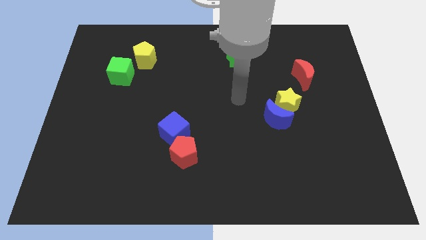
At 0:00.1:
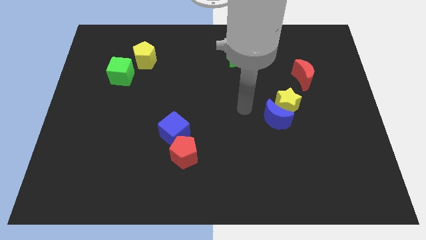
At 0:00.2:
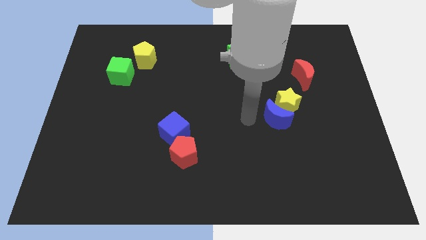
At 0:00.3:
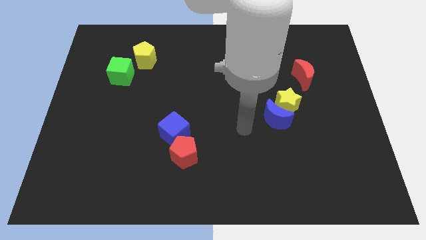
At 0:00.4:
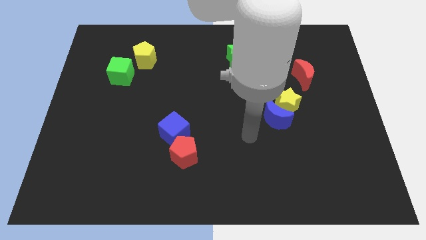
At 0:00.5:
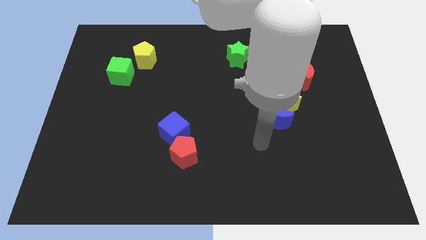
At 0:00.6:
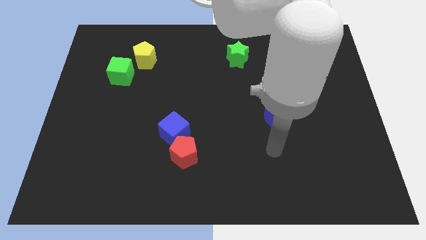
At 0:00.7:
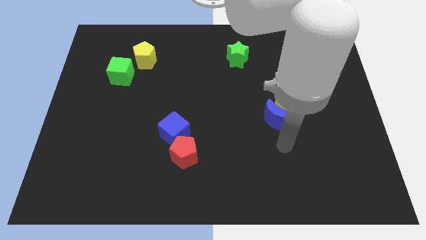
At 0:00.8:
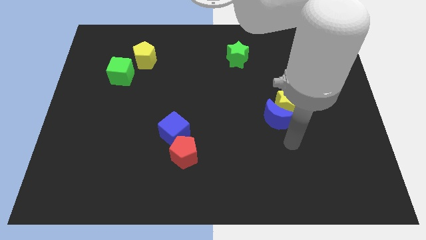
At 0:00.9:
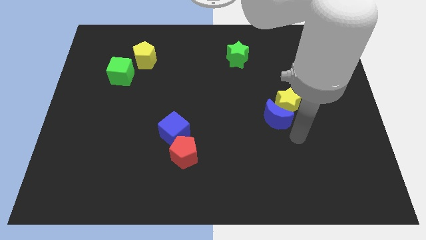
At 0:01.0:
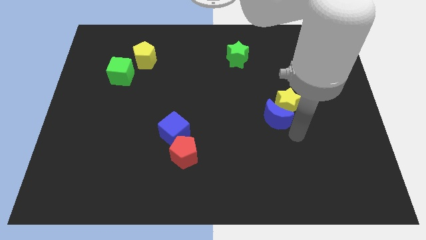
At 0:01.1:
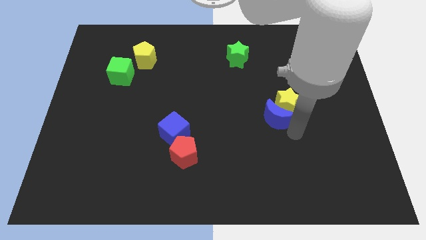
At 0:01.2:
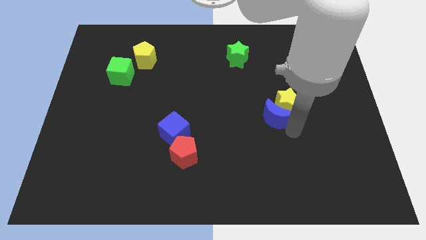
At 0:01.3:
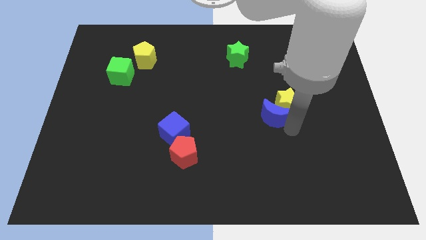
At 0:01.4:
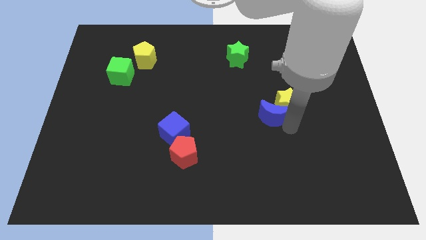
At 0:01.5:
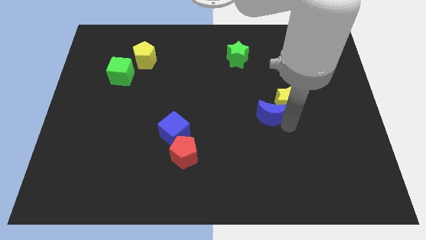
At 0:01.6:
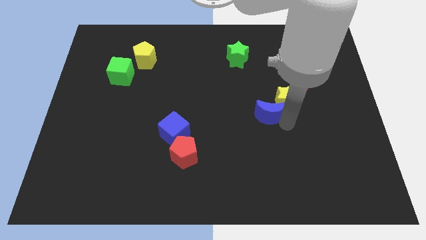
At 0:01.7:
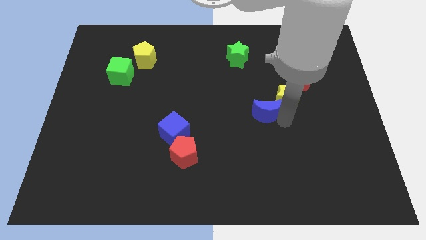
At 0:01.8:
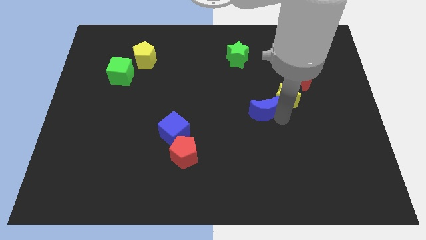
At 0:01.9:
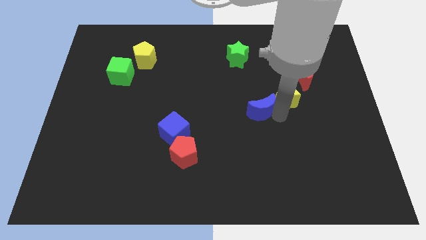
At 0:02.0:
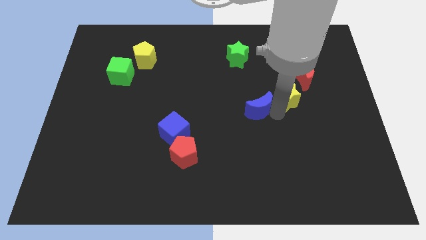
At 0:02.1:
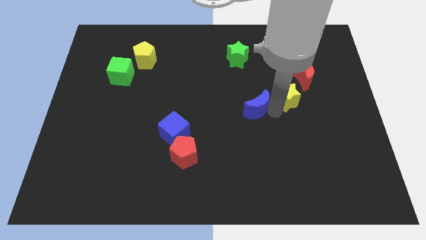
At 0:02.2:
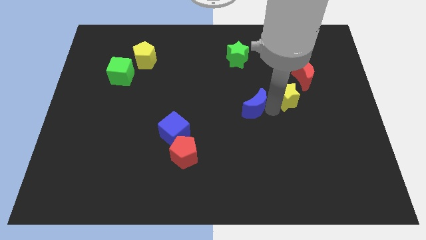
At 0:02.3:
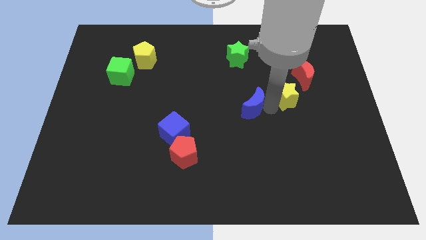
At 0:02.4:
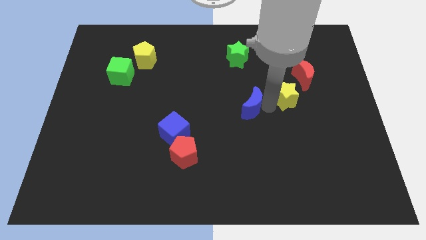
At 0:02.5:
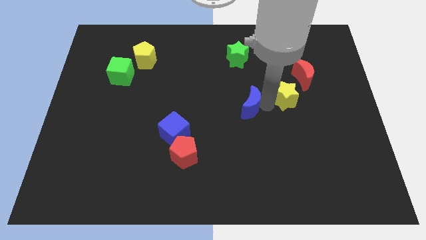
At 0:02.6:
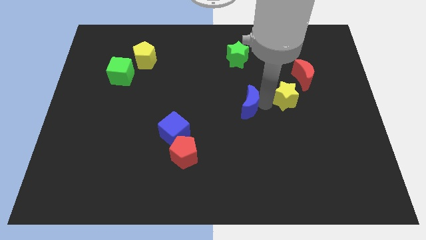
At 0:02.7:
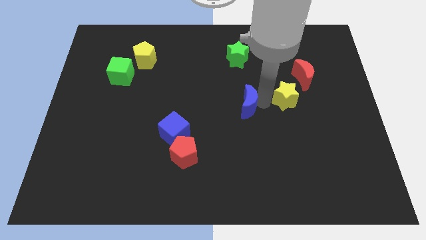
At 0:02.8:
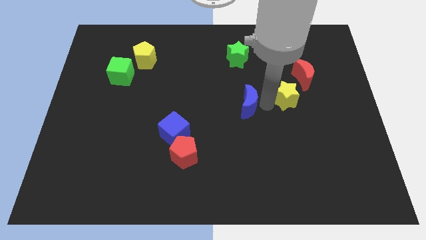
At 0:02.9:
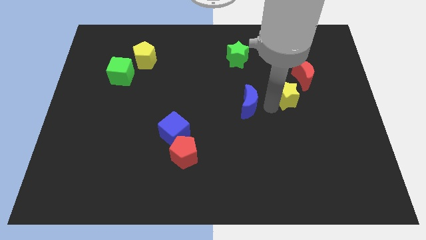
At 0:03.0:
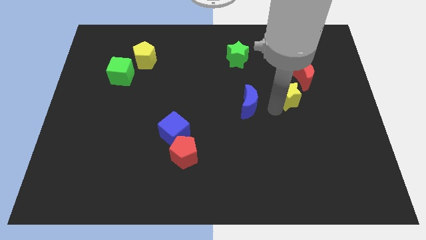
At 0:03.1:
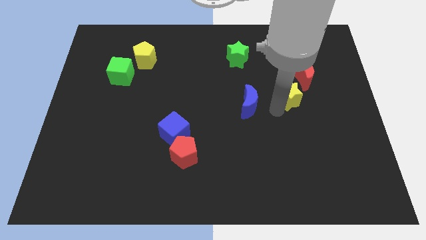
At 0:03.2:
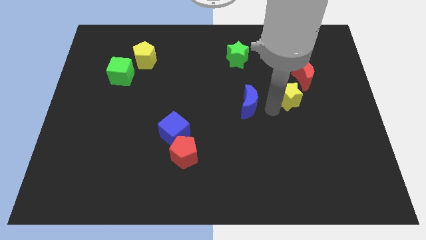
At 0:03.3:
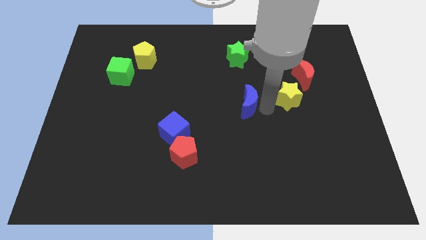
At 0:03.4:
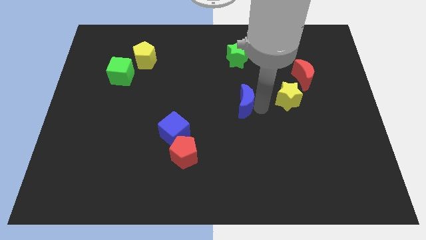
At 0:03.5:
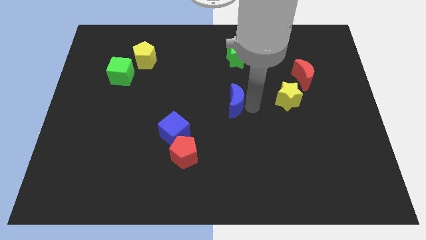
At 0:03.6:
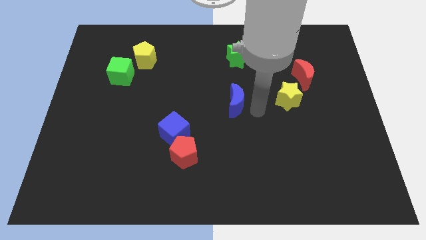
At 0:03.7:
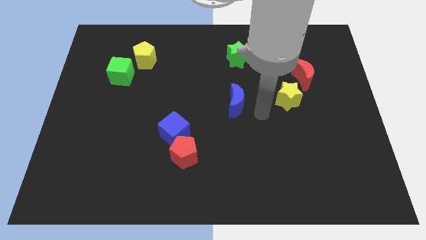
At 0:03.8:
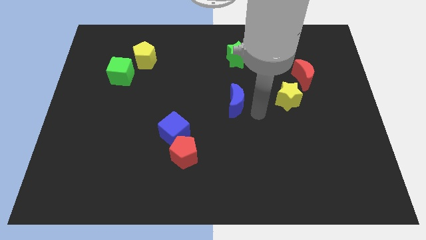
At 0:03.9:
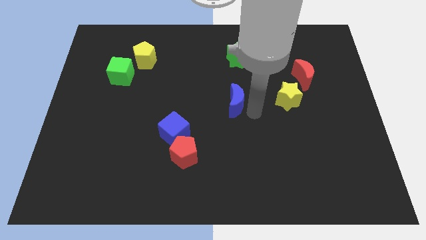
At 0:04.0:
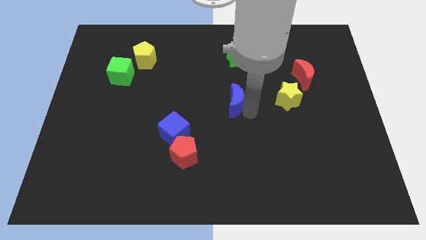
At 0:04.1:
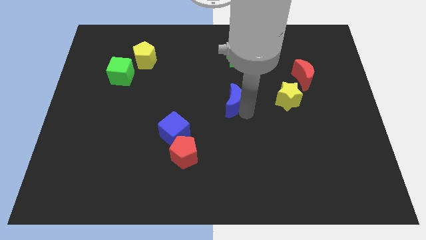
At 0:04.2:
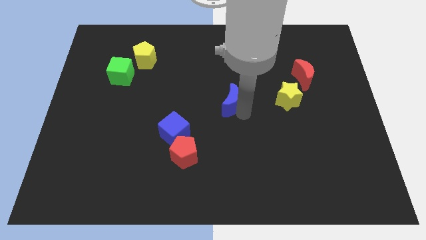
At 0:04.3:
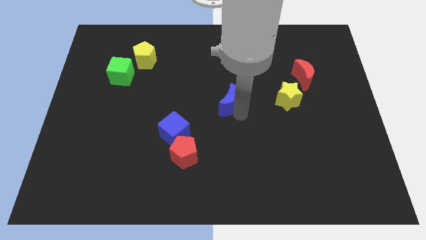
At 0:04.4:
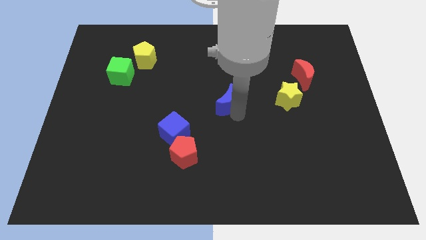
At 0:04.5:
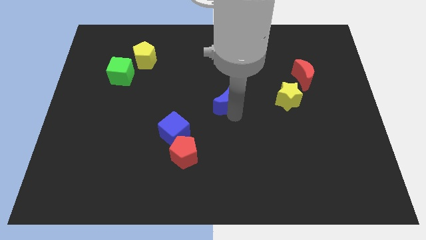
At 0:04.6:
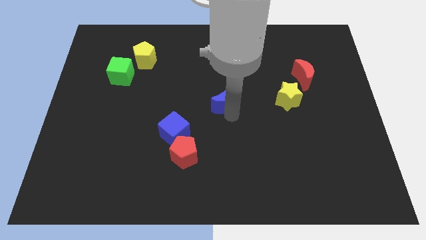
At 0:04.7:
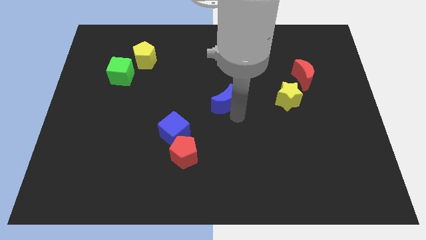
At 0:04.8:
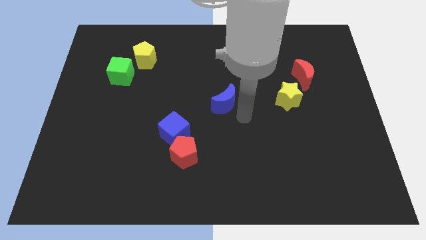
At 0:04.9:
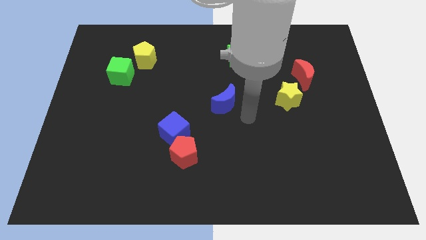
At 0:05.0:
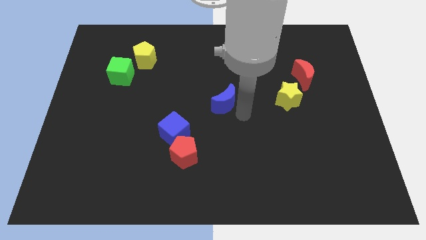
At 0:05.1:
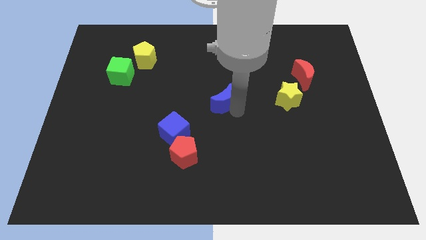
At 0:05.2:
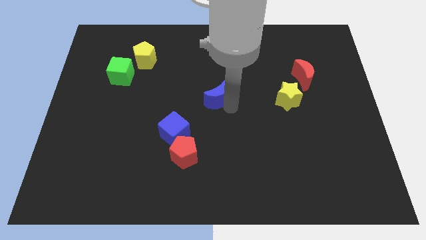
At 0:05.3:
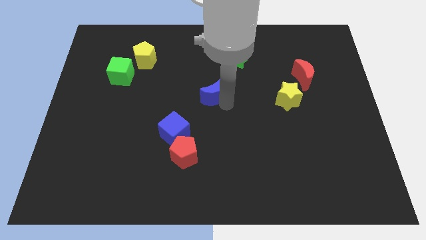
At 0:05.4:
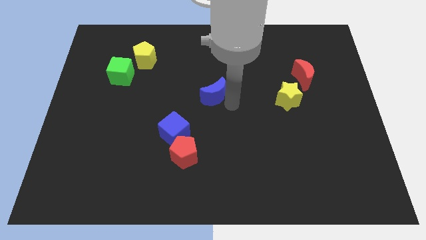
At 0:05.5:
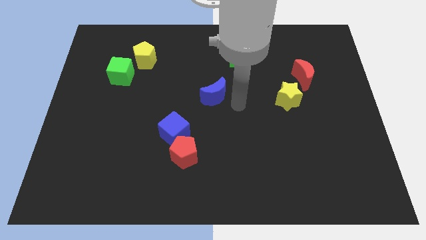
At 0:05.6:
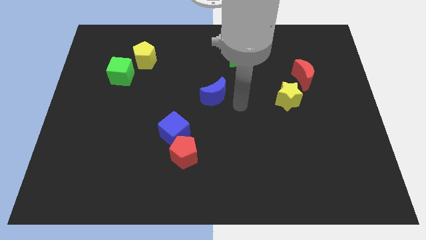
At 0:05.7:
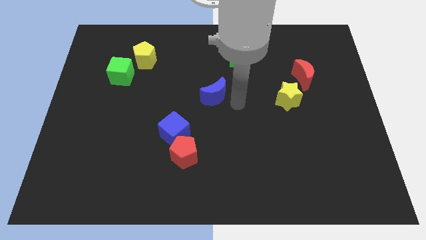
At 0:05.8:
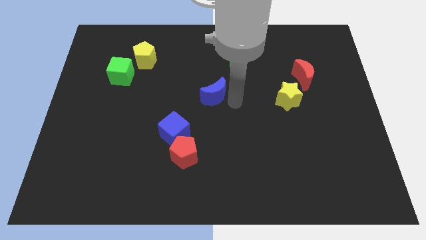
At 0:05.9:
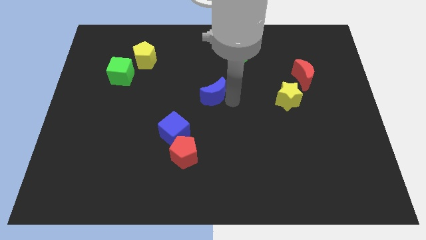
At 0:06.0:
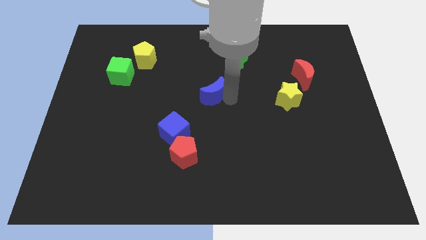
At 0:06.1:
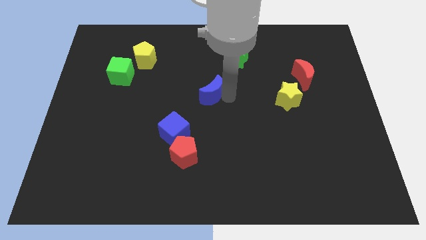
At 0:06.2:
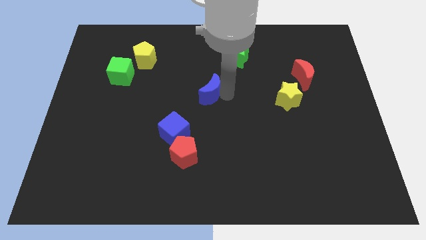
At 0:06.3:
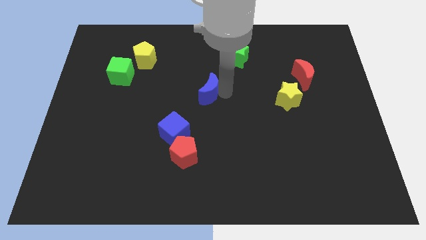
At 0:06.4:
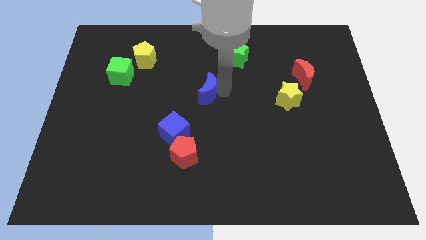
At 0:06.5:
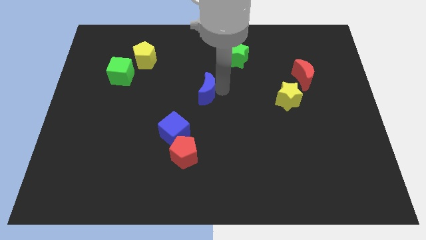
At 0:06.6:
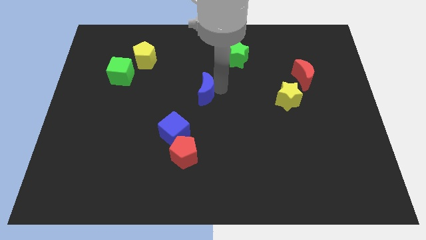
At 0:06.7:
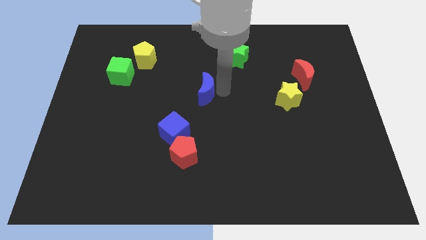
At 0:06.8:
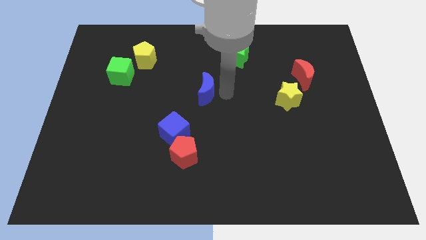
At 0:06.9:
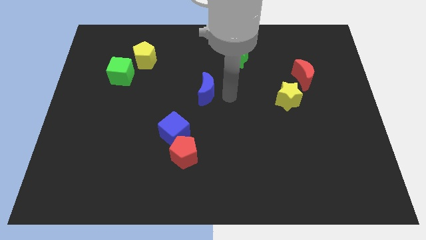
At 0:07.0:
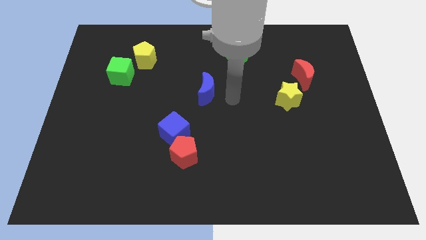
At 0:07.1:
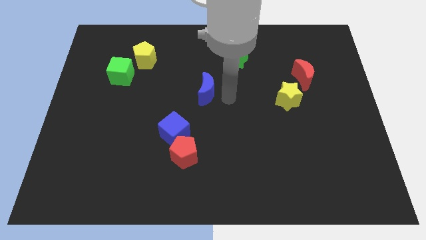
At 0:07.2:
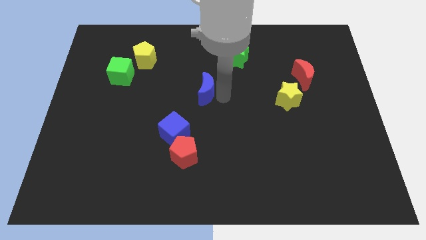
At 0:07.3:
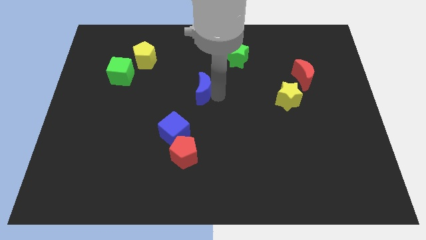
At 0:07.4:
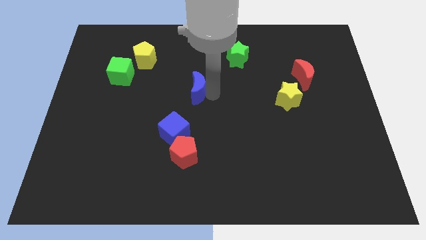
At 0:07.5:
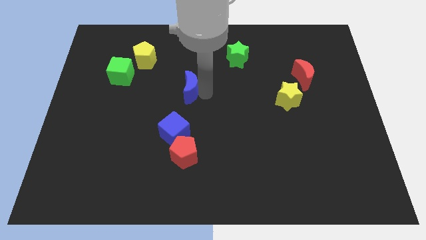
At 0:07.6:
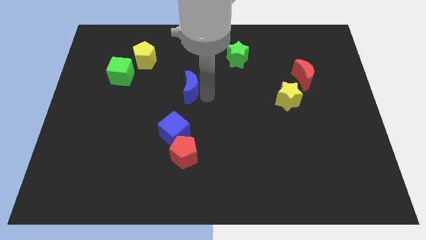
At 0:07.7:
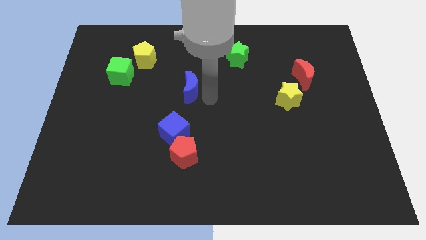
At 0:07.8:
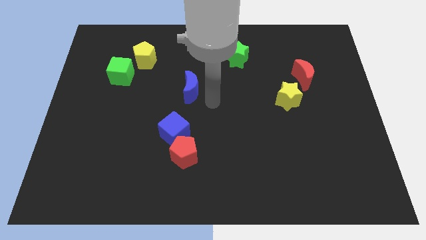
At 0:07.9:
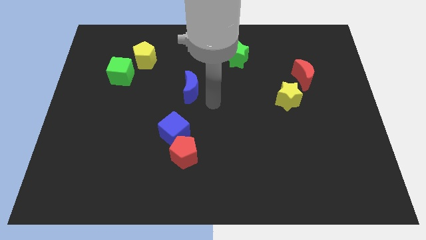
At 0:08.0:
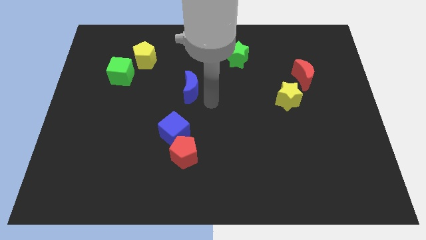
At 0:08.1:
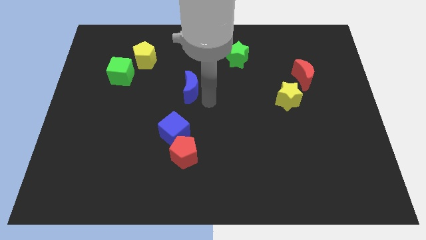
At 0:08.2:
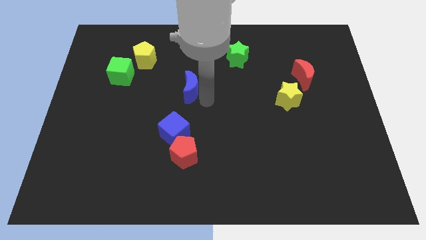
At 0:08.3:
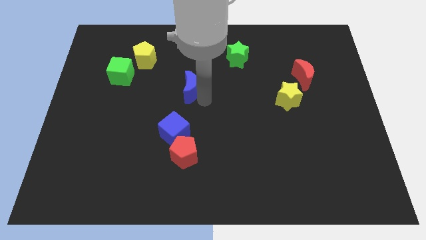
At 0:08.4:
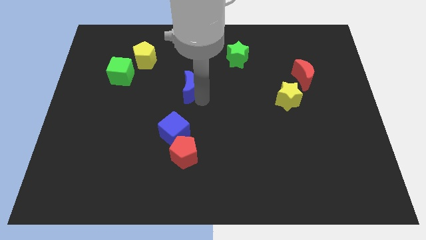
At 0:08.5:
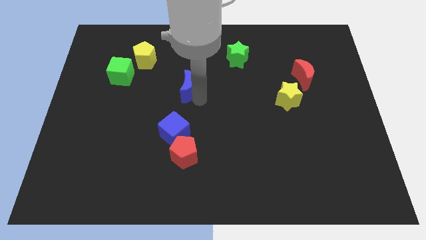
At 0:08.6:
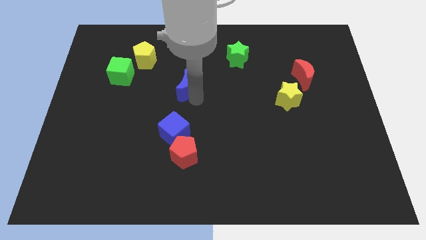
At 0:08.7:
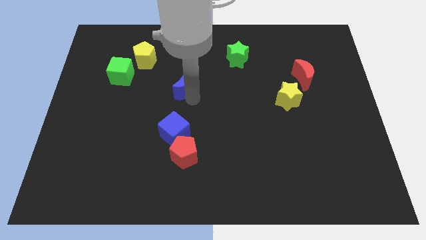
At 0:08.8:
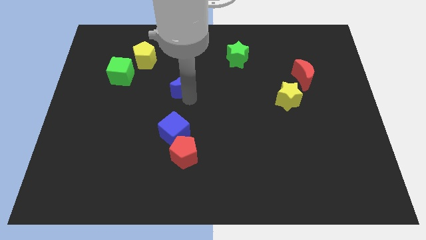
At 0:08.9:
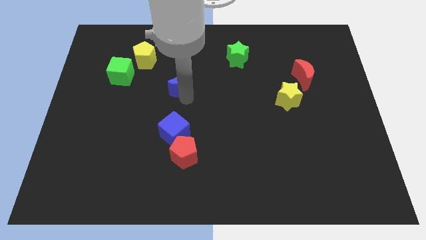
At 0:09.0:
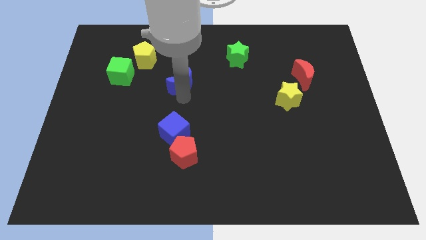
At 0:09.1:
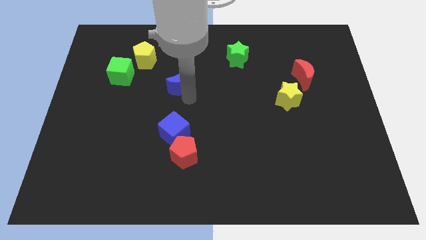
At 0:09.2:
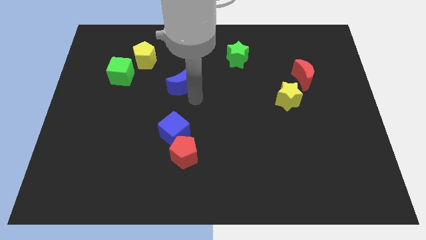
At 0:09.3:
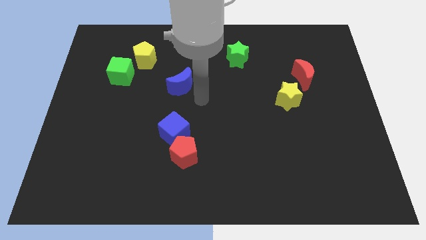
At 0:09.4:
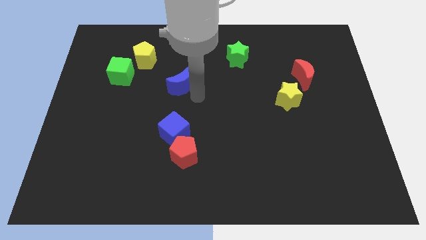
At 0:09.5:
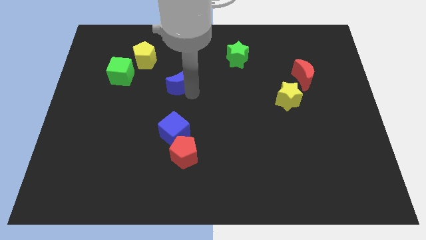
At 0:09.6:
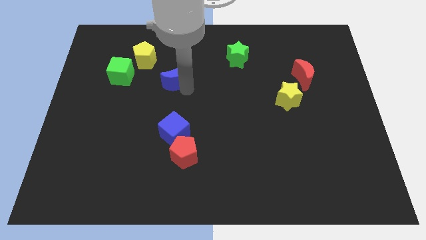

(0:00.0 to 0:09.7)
move the blue moon diagonally down and to the right of the yellow pentagon
